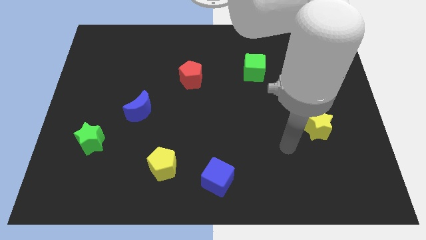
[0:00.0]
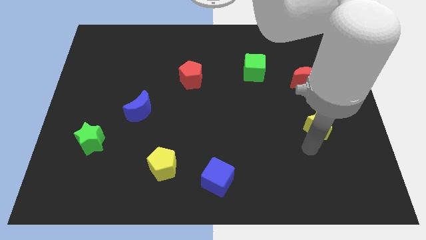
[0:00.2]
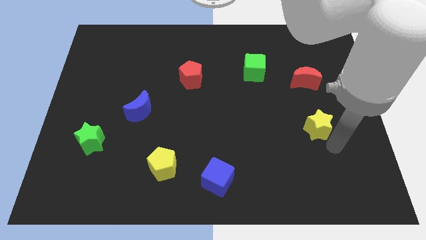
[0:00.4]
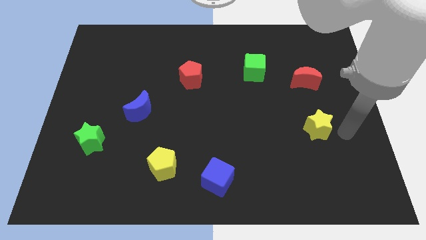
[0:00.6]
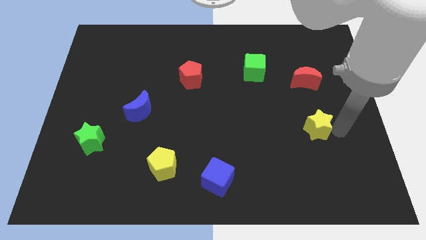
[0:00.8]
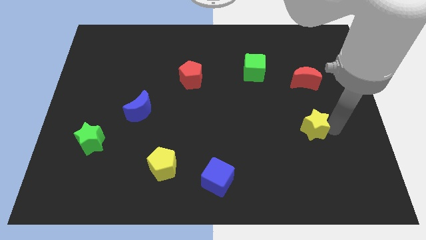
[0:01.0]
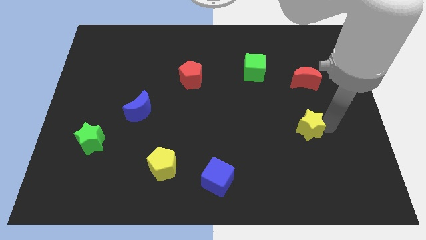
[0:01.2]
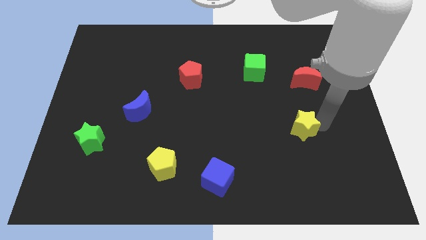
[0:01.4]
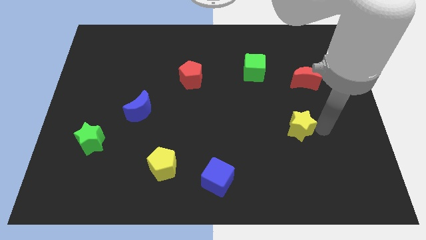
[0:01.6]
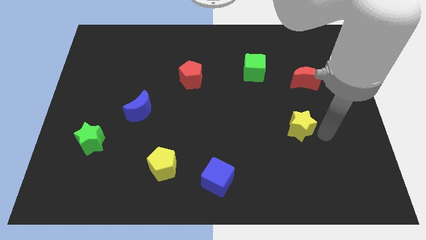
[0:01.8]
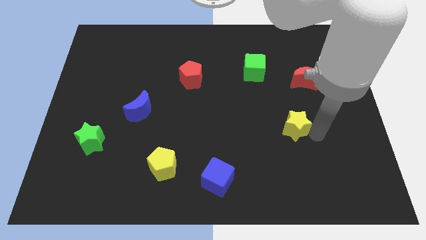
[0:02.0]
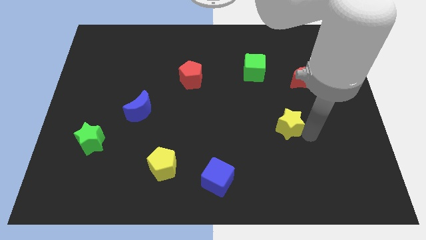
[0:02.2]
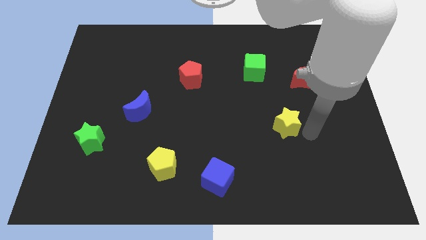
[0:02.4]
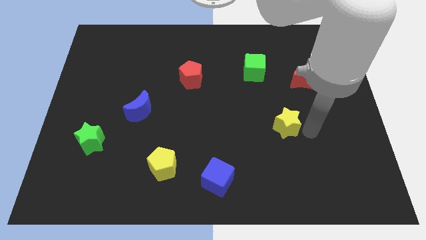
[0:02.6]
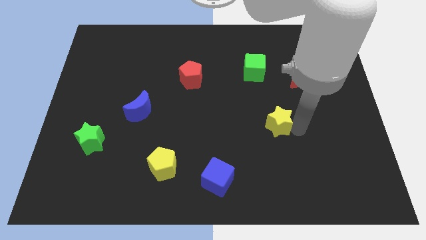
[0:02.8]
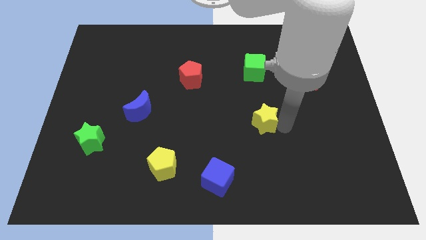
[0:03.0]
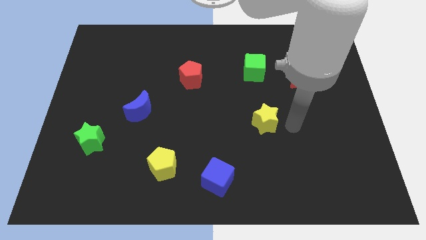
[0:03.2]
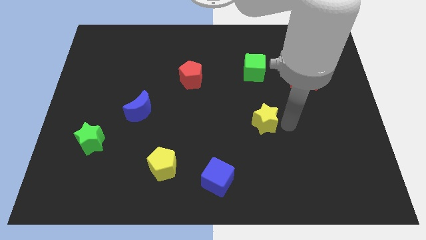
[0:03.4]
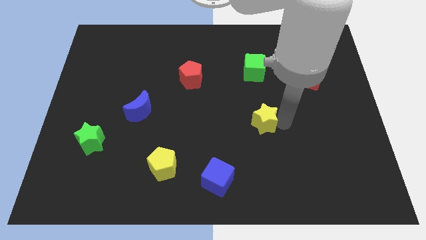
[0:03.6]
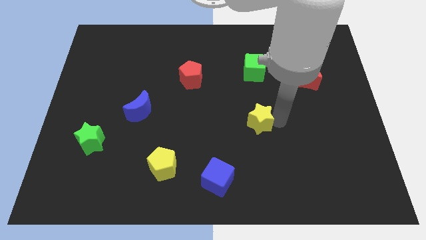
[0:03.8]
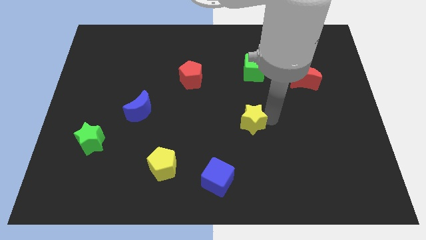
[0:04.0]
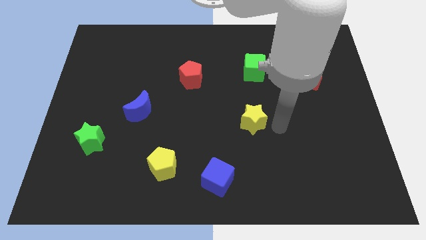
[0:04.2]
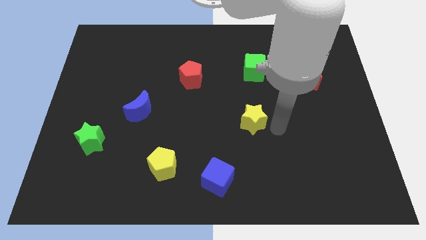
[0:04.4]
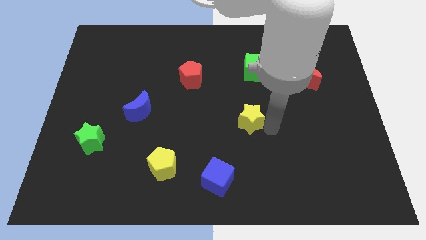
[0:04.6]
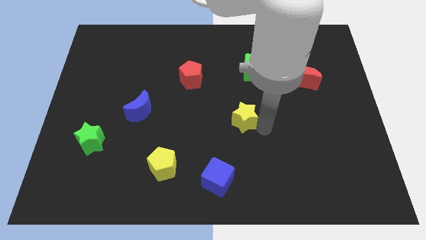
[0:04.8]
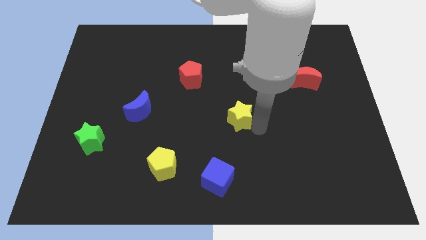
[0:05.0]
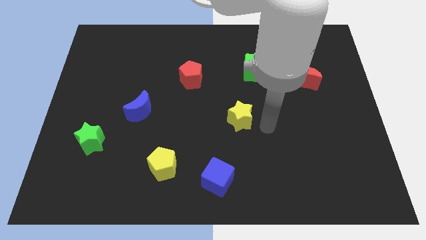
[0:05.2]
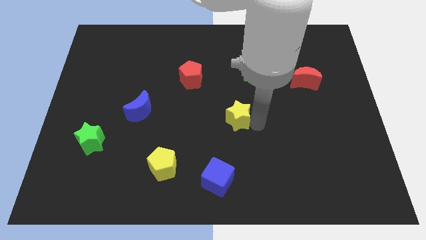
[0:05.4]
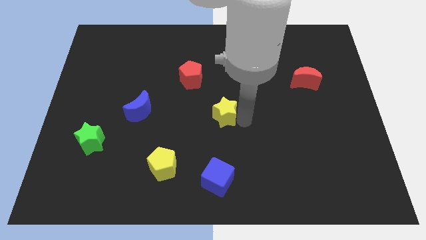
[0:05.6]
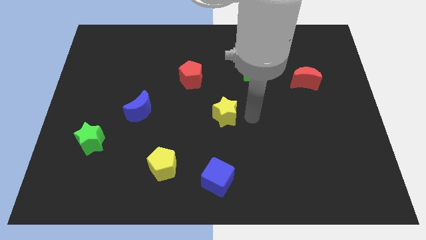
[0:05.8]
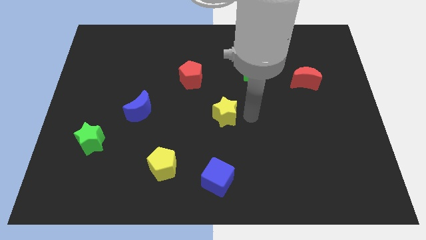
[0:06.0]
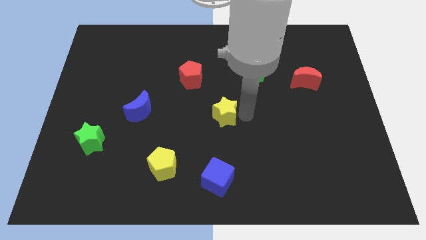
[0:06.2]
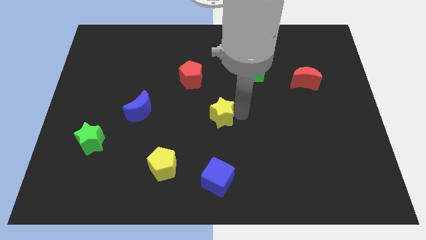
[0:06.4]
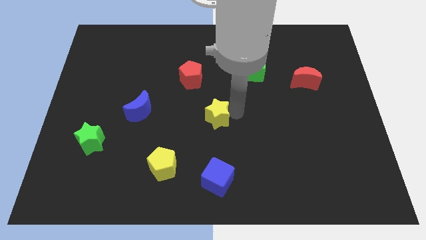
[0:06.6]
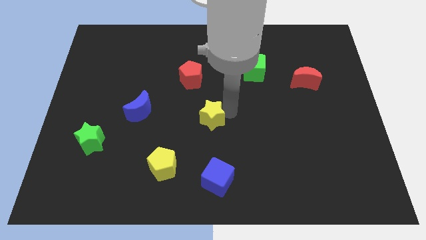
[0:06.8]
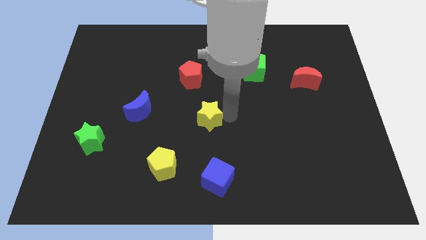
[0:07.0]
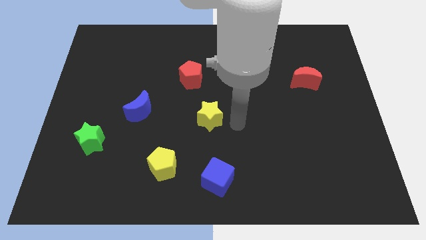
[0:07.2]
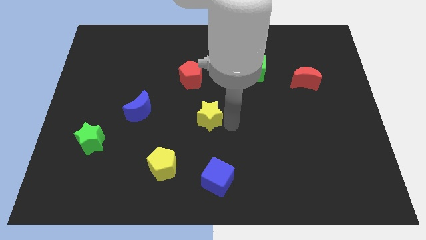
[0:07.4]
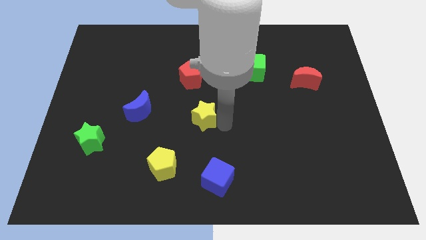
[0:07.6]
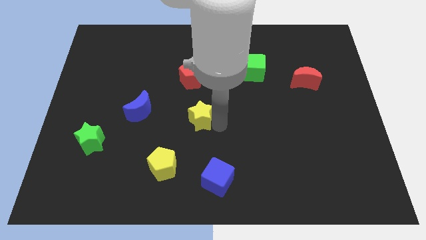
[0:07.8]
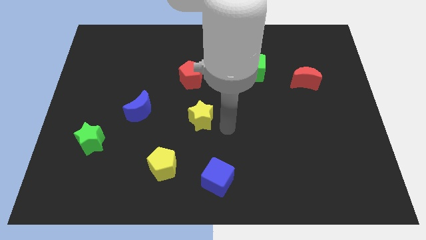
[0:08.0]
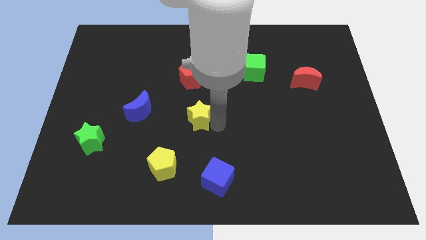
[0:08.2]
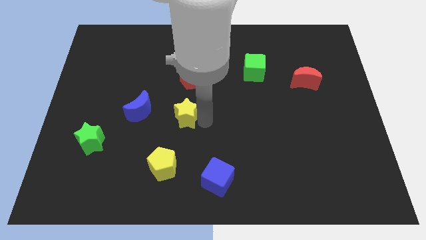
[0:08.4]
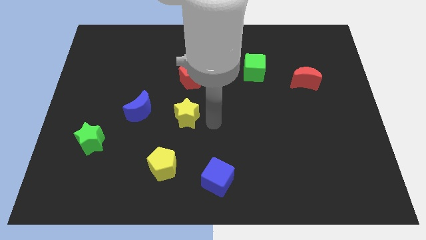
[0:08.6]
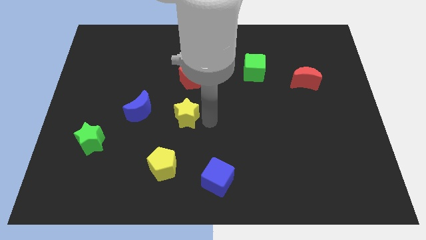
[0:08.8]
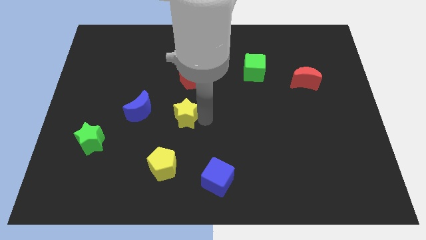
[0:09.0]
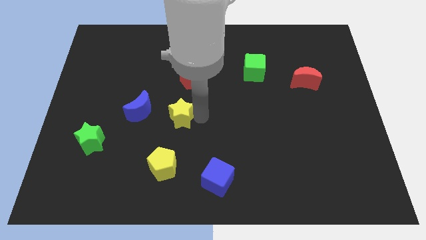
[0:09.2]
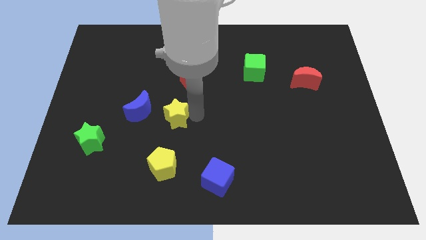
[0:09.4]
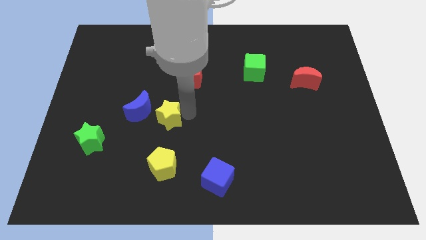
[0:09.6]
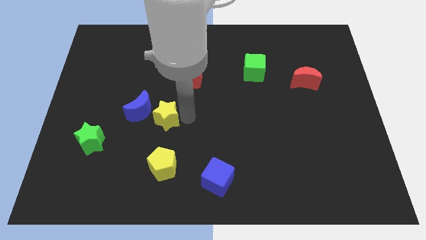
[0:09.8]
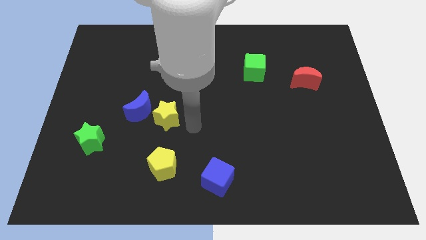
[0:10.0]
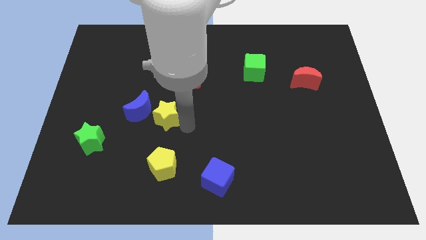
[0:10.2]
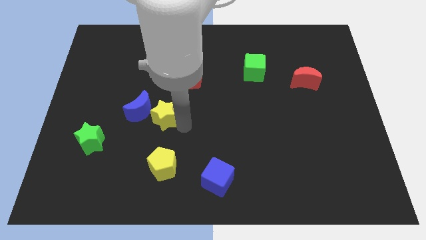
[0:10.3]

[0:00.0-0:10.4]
move the yellow star to the blue moon

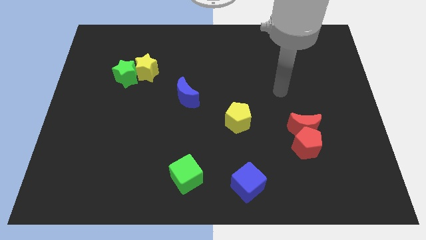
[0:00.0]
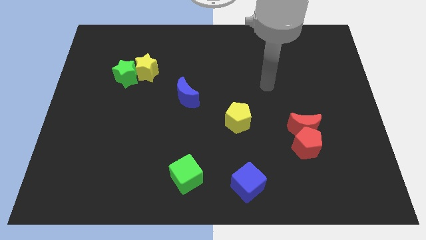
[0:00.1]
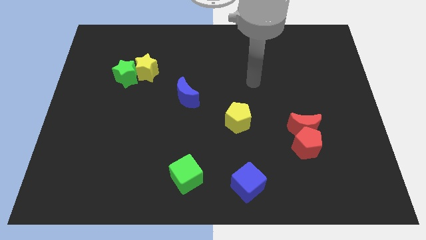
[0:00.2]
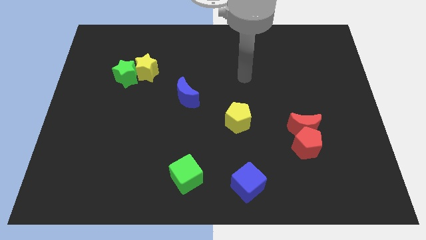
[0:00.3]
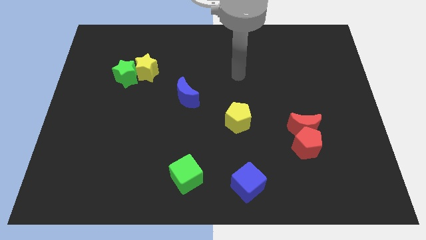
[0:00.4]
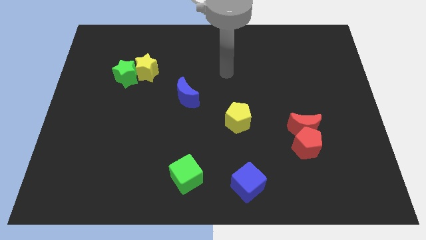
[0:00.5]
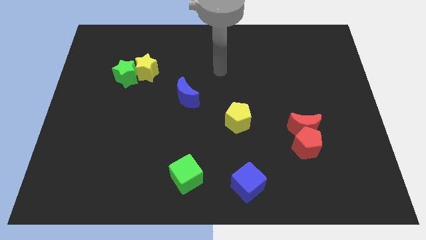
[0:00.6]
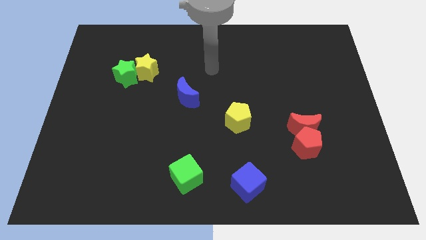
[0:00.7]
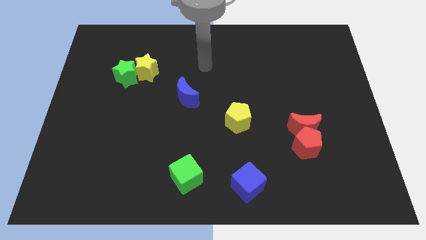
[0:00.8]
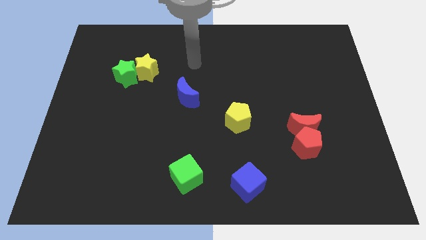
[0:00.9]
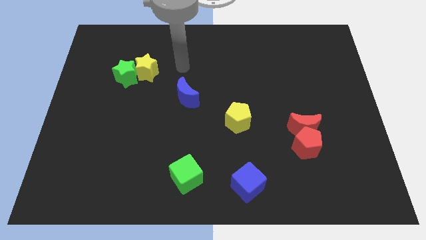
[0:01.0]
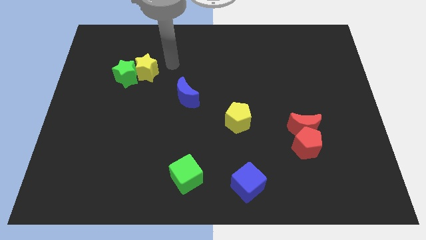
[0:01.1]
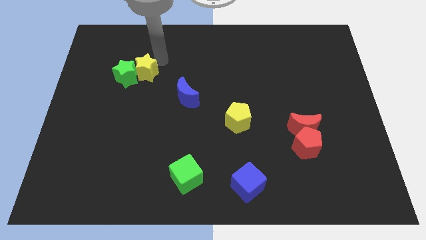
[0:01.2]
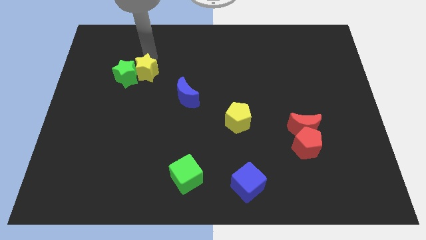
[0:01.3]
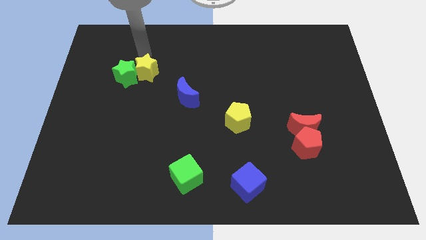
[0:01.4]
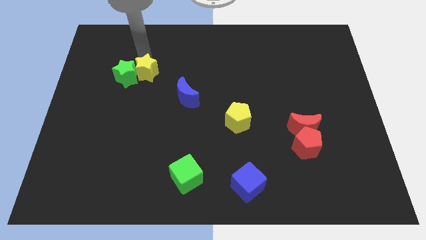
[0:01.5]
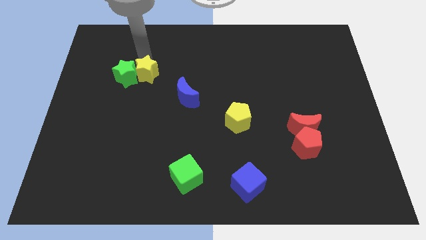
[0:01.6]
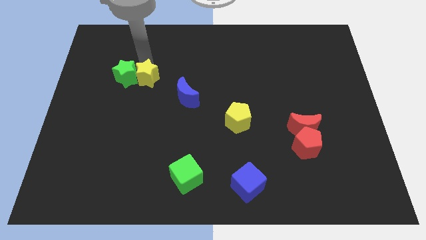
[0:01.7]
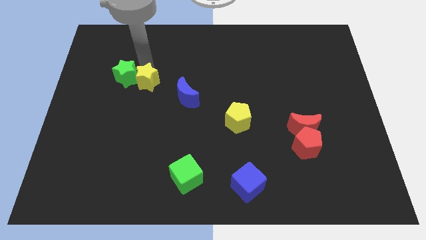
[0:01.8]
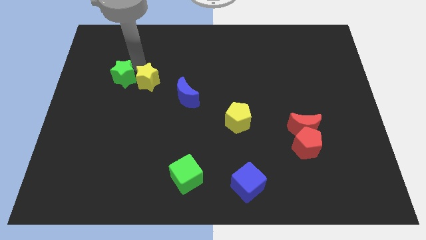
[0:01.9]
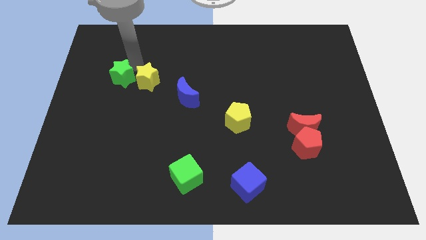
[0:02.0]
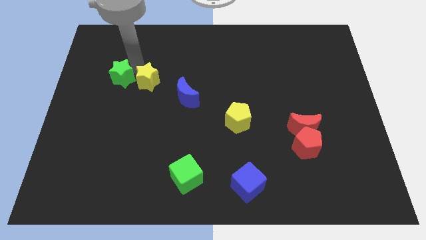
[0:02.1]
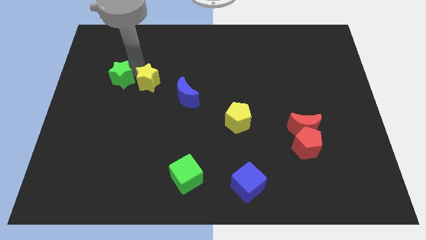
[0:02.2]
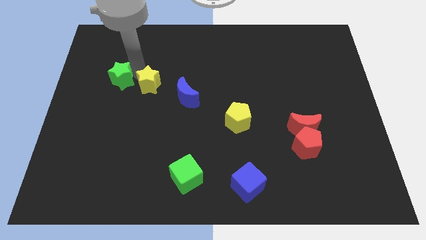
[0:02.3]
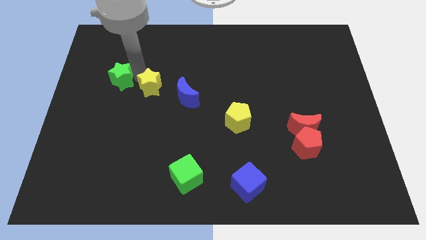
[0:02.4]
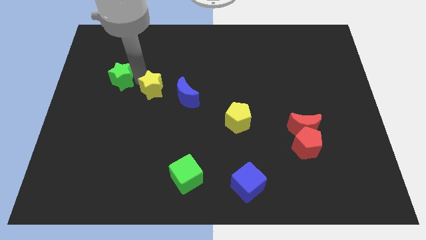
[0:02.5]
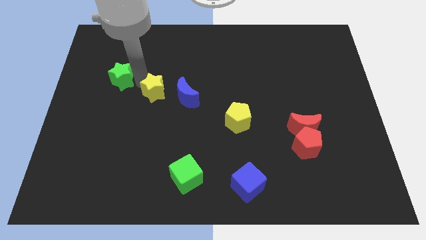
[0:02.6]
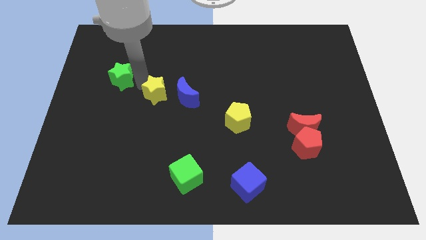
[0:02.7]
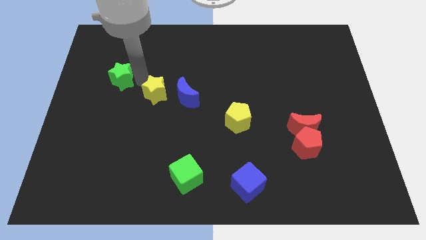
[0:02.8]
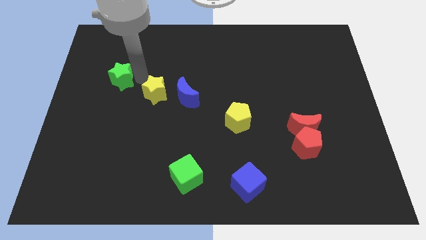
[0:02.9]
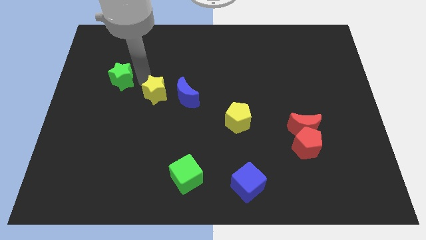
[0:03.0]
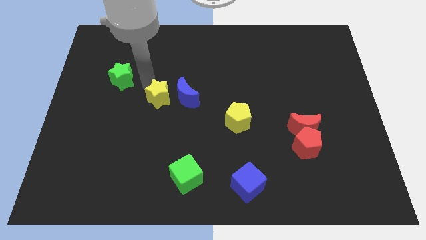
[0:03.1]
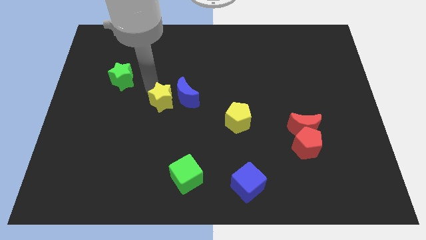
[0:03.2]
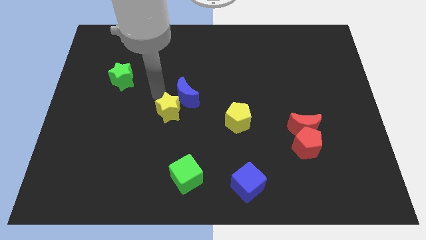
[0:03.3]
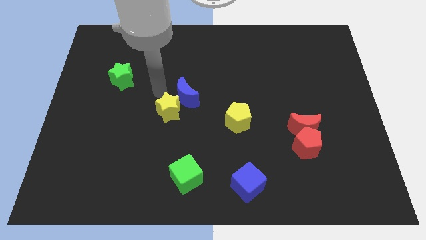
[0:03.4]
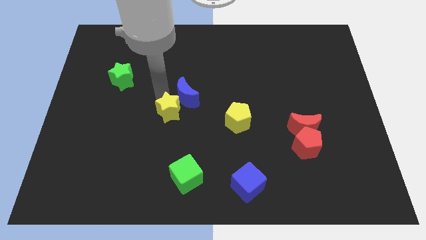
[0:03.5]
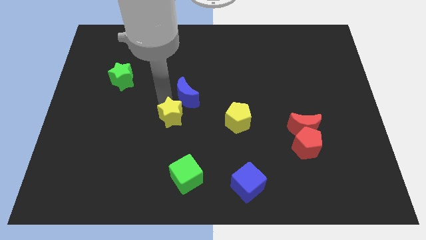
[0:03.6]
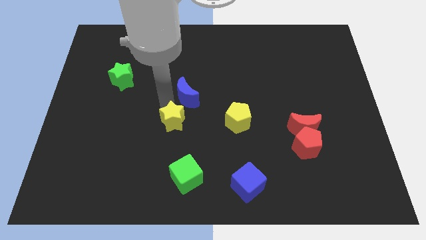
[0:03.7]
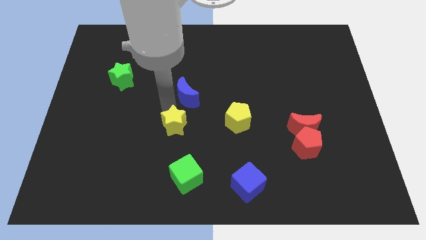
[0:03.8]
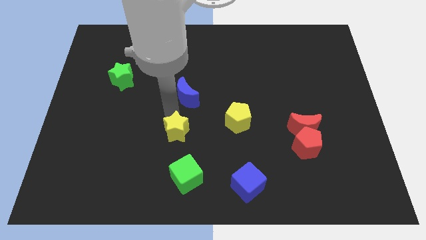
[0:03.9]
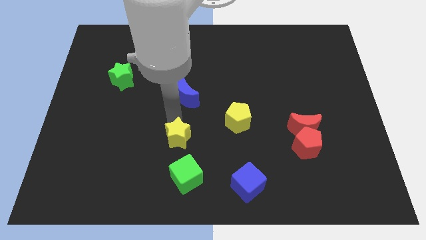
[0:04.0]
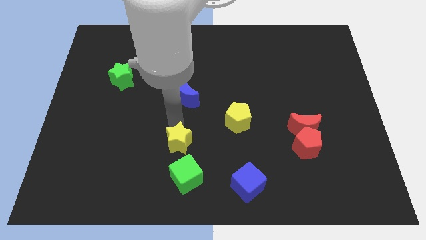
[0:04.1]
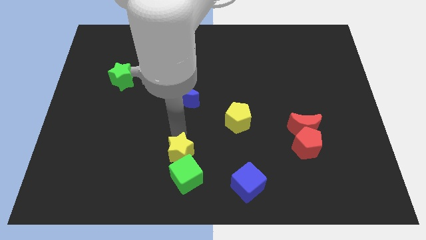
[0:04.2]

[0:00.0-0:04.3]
slide the yellow star towards the green cube
